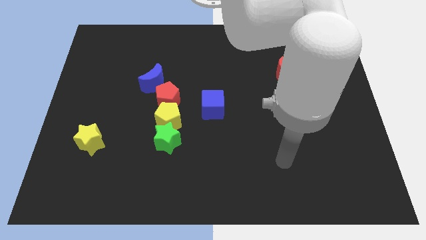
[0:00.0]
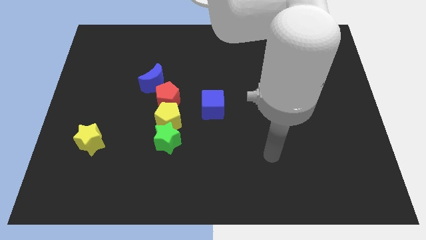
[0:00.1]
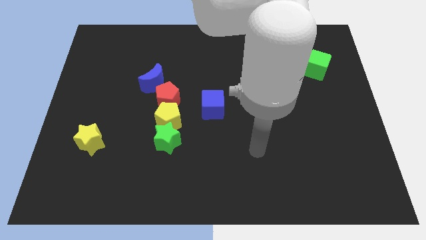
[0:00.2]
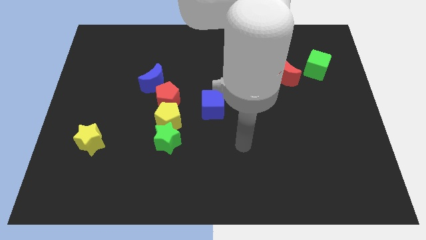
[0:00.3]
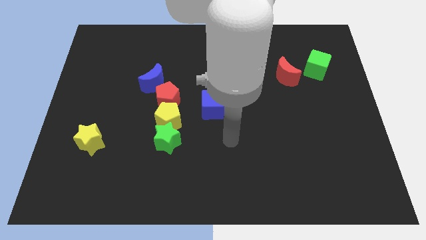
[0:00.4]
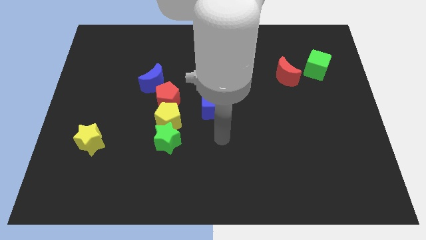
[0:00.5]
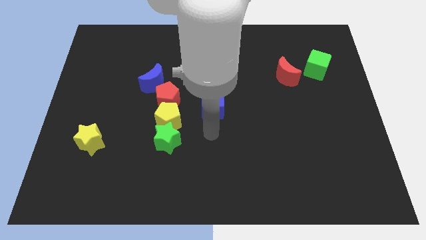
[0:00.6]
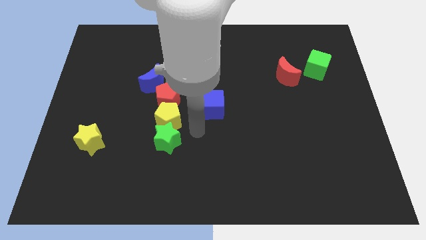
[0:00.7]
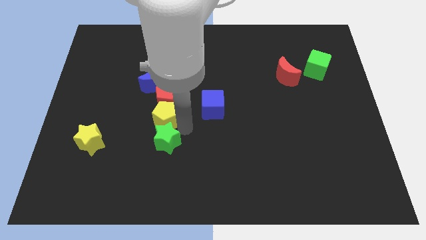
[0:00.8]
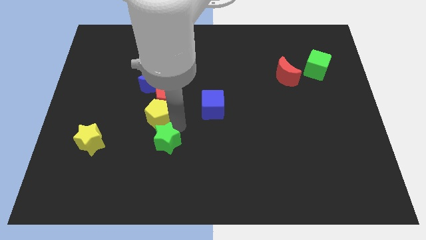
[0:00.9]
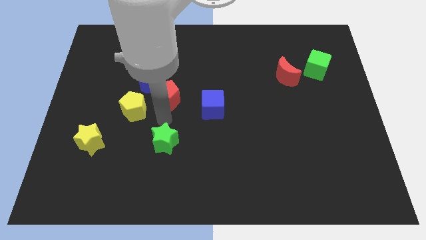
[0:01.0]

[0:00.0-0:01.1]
pull the green star apart from the yellow pentagon

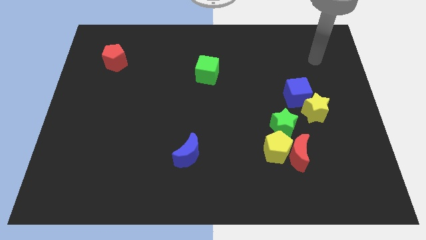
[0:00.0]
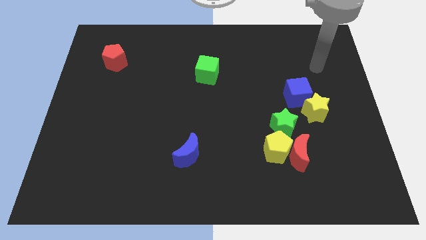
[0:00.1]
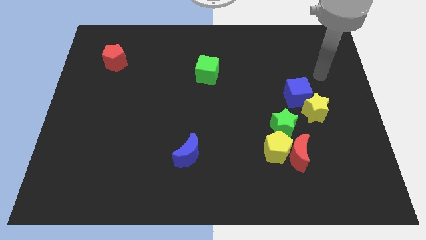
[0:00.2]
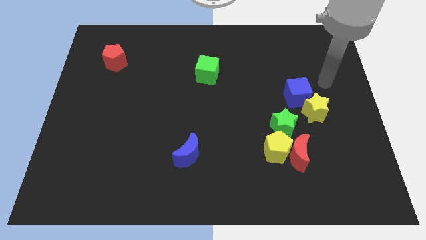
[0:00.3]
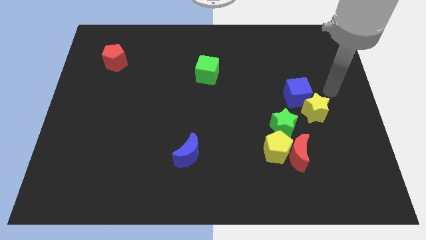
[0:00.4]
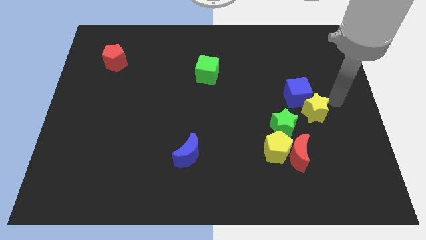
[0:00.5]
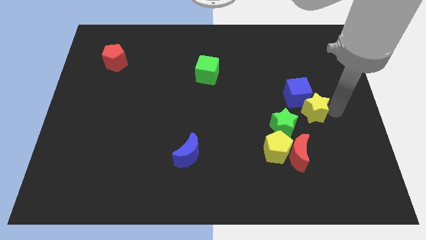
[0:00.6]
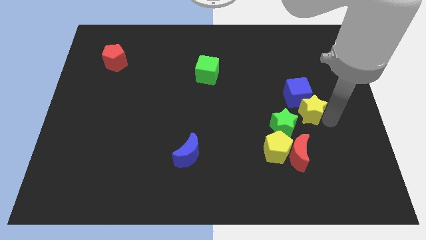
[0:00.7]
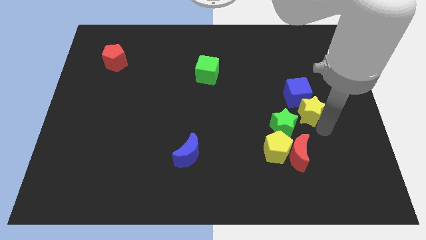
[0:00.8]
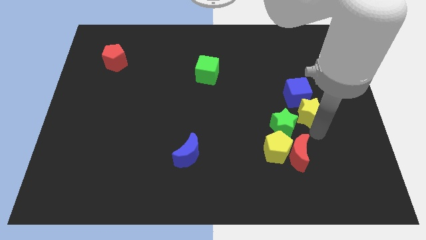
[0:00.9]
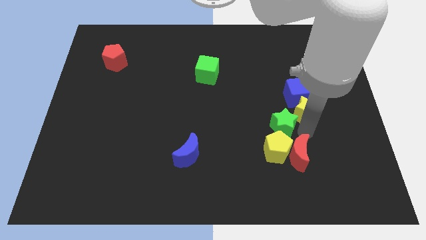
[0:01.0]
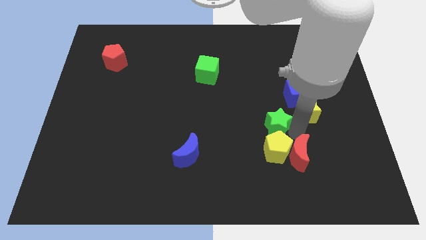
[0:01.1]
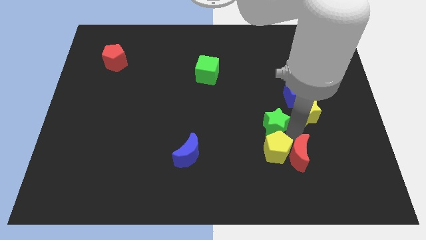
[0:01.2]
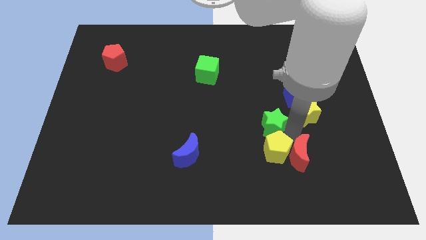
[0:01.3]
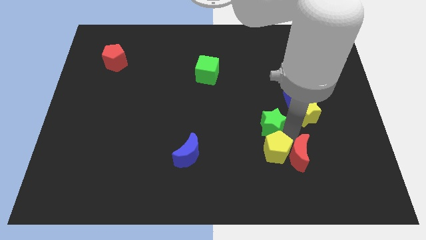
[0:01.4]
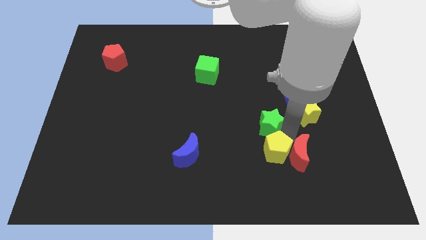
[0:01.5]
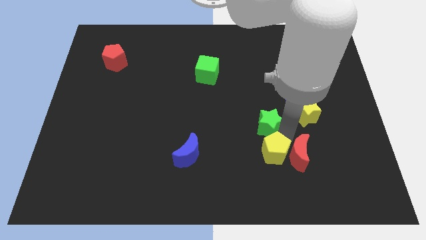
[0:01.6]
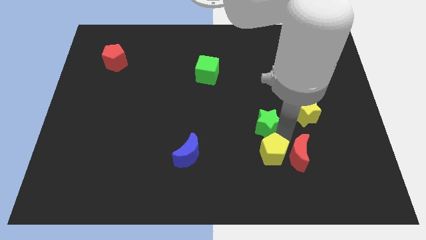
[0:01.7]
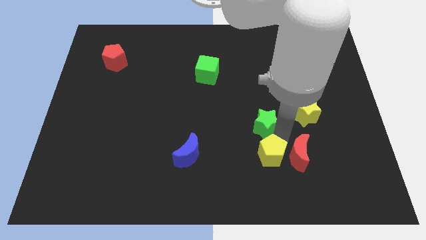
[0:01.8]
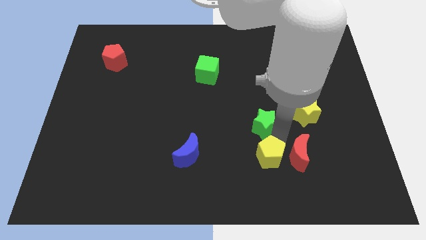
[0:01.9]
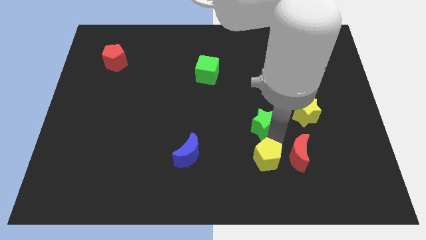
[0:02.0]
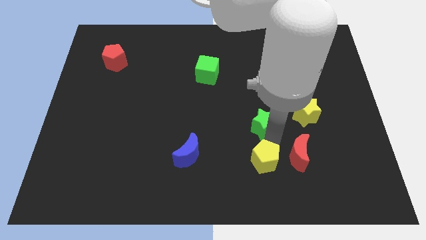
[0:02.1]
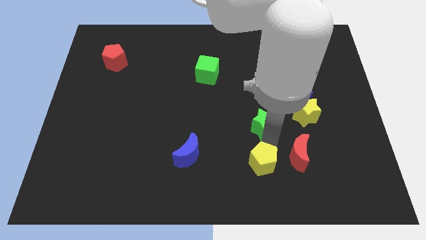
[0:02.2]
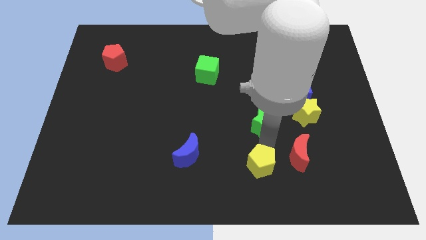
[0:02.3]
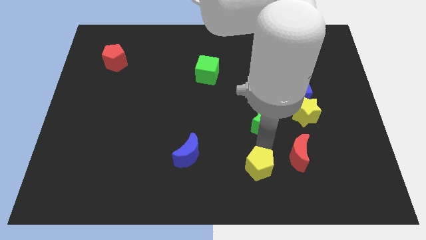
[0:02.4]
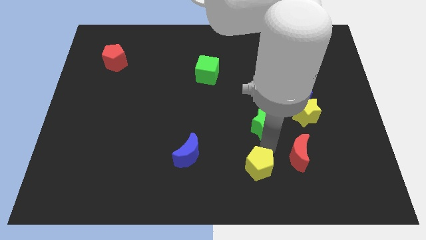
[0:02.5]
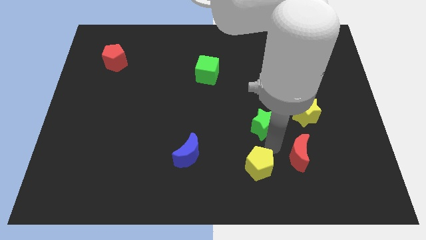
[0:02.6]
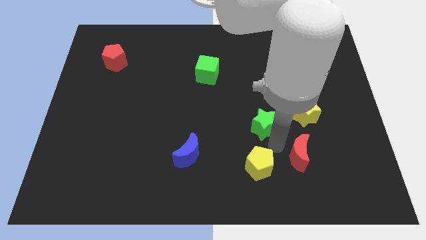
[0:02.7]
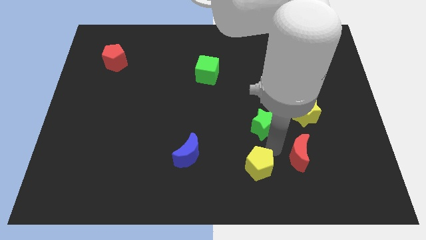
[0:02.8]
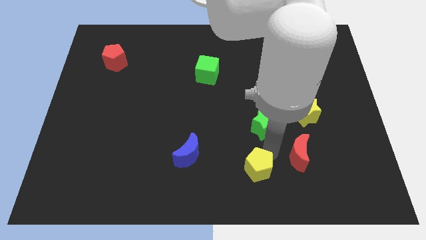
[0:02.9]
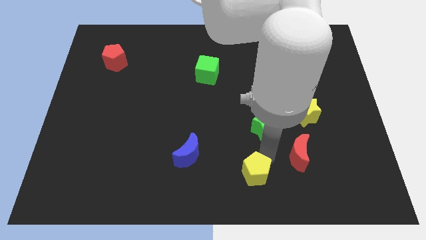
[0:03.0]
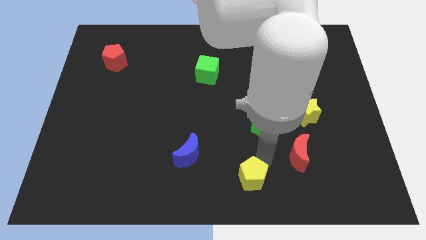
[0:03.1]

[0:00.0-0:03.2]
pull the yellow pentagon apart from the red moon and green star

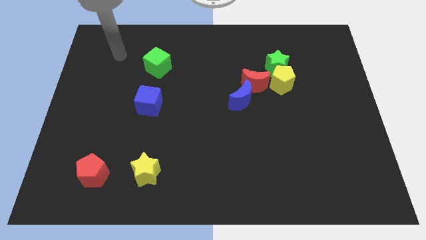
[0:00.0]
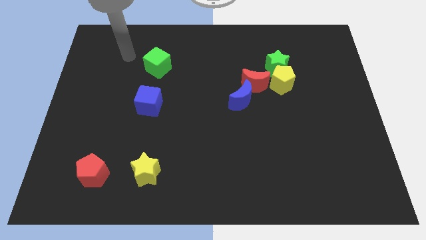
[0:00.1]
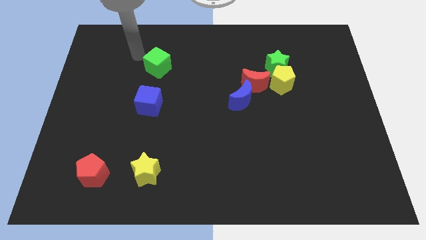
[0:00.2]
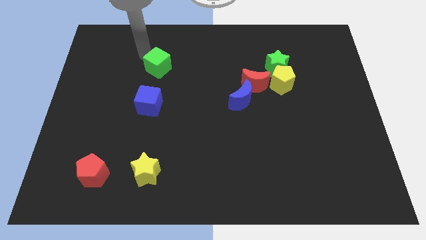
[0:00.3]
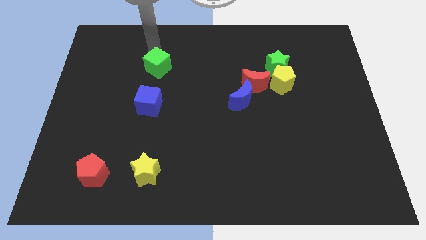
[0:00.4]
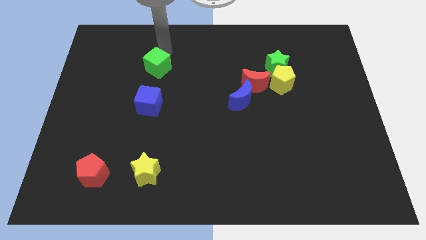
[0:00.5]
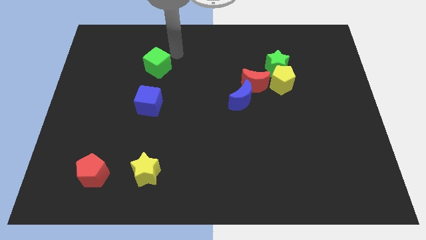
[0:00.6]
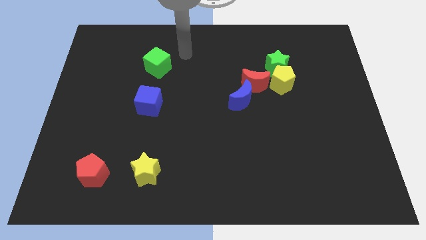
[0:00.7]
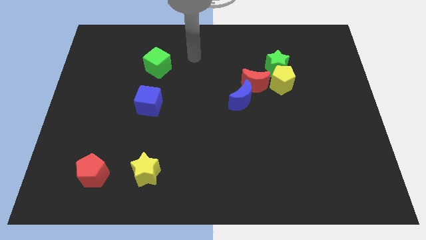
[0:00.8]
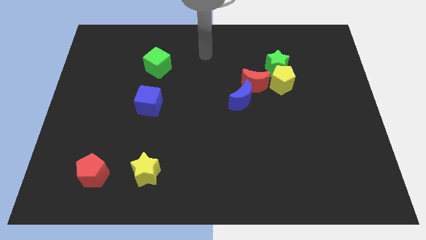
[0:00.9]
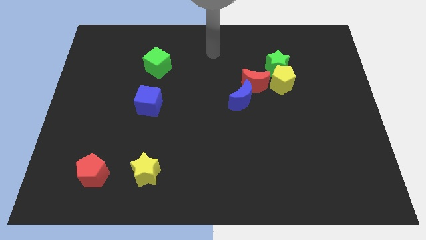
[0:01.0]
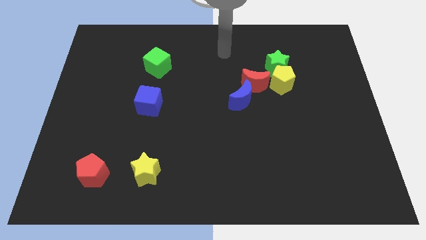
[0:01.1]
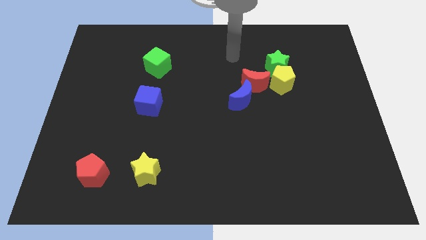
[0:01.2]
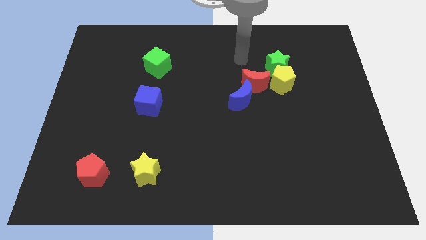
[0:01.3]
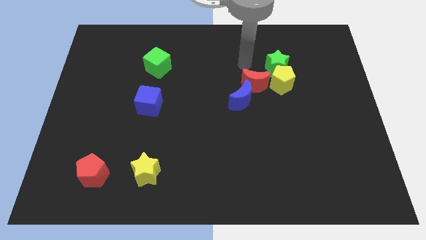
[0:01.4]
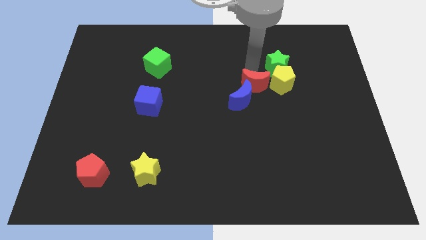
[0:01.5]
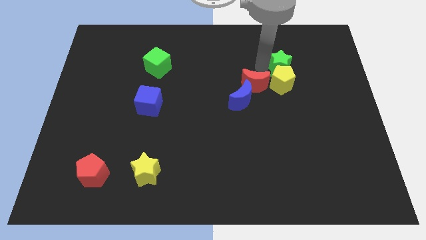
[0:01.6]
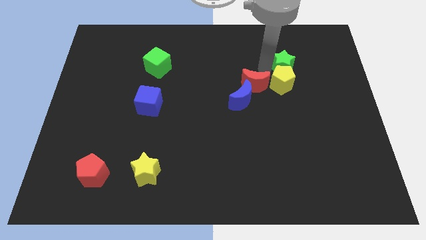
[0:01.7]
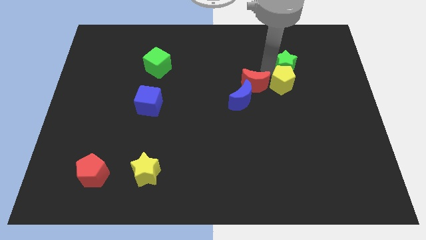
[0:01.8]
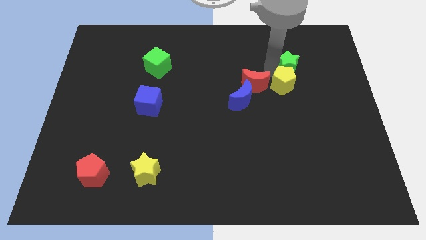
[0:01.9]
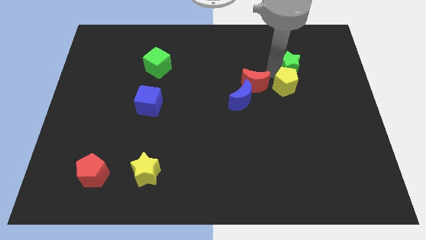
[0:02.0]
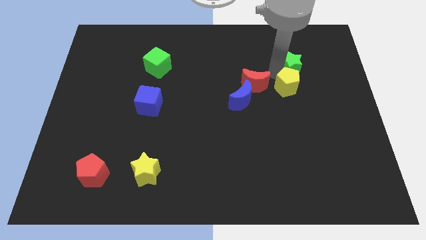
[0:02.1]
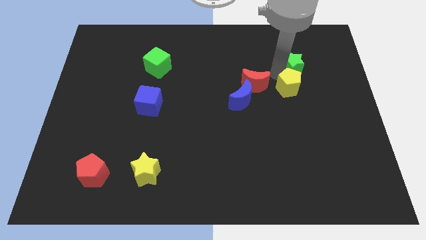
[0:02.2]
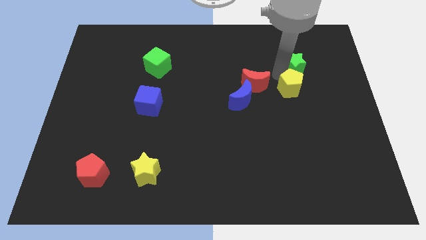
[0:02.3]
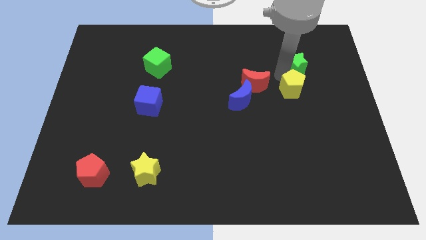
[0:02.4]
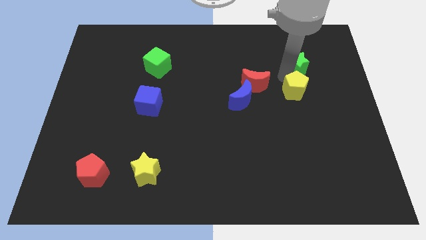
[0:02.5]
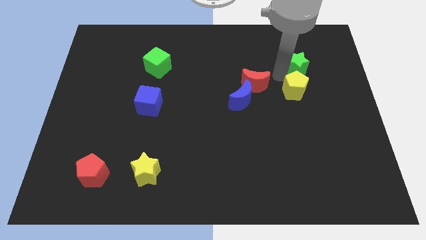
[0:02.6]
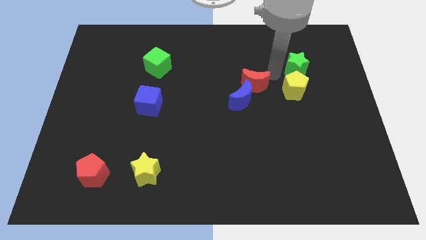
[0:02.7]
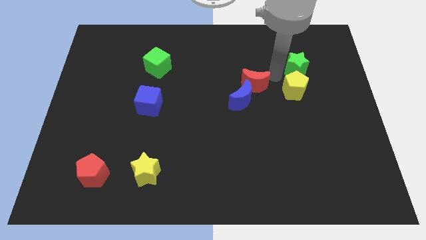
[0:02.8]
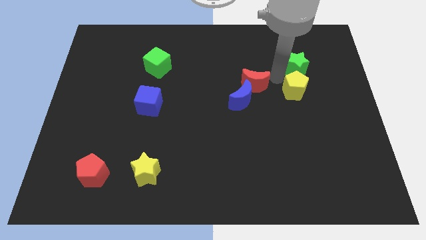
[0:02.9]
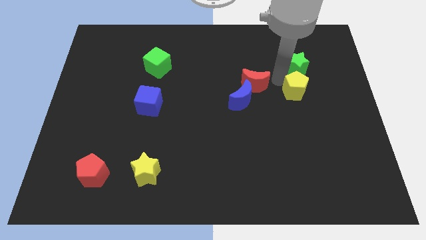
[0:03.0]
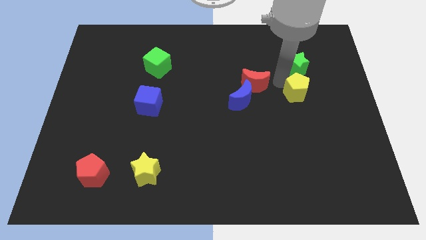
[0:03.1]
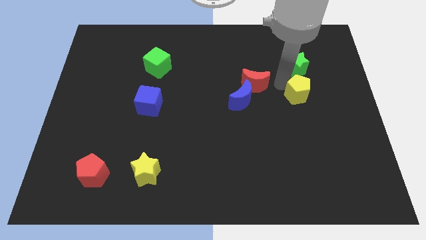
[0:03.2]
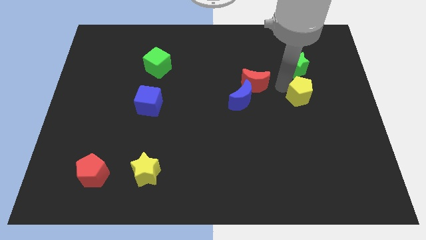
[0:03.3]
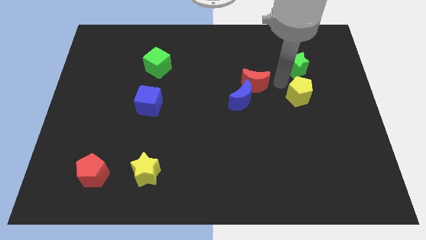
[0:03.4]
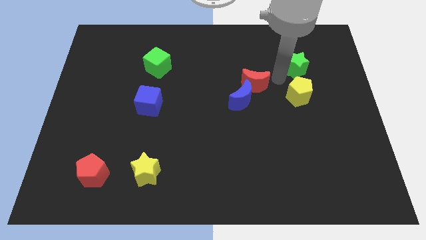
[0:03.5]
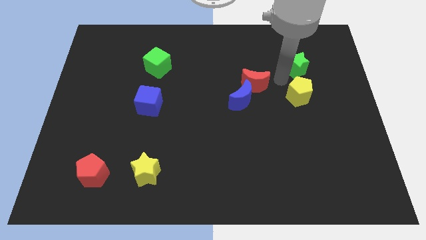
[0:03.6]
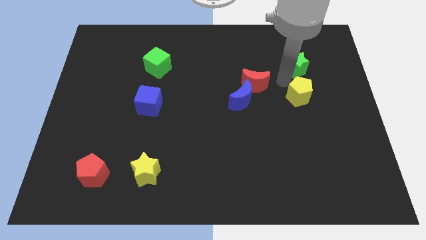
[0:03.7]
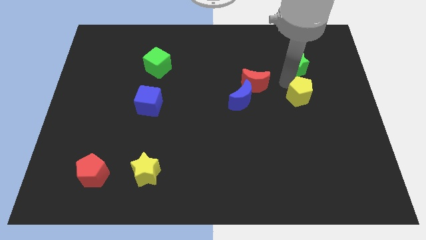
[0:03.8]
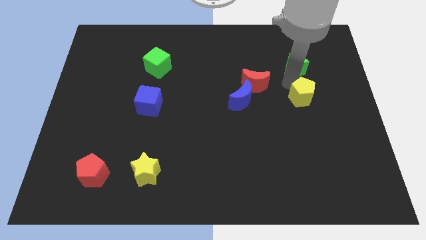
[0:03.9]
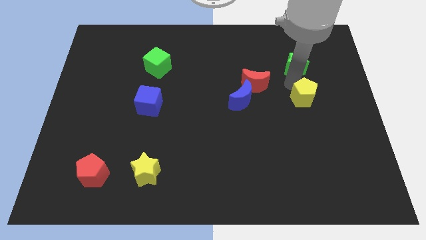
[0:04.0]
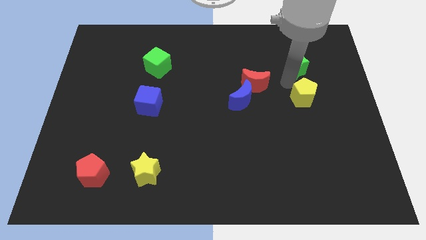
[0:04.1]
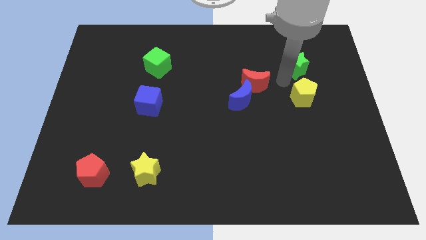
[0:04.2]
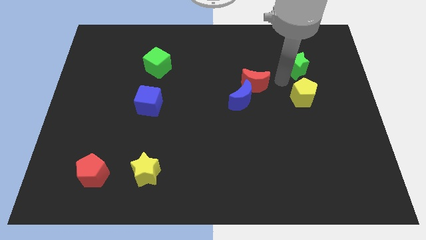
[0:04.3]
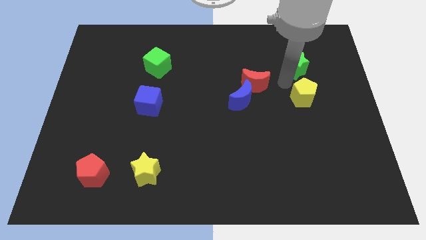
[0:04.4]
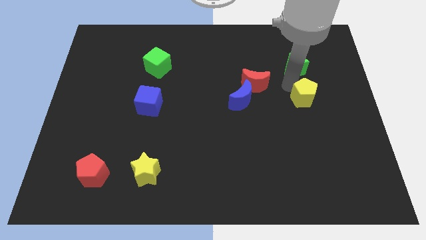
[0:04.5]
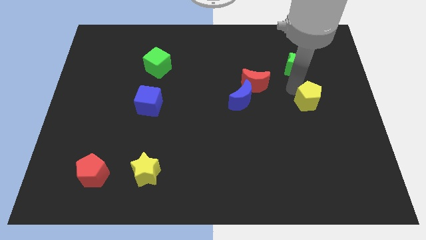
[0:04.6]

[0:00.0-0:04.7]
move the yellow pentagon away from the green star and red moon

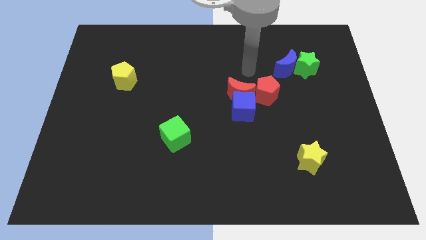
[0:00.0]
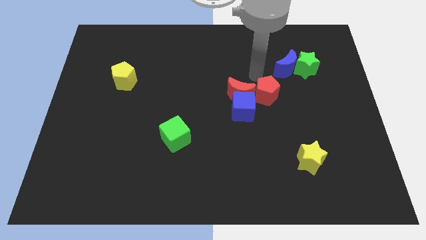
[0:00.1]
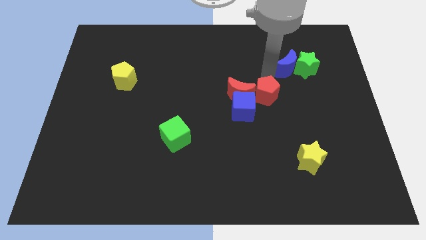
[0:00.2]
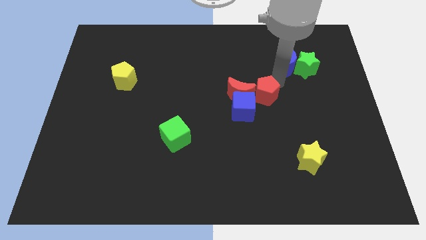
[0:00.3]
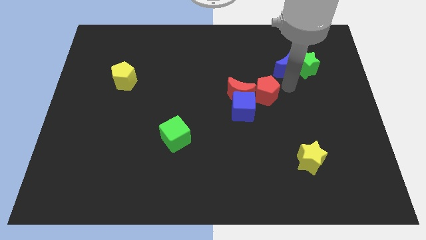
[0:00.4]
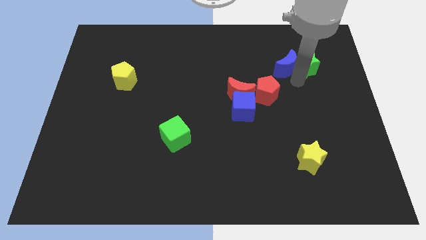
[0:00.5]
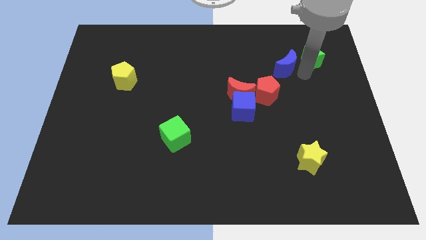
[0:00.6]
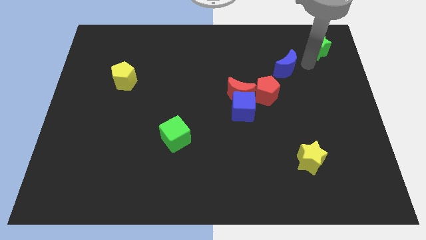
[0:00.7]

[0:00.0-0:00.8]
separate the blue moon from the green star
